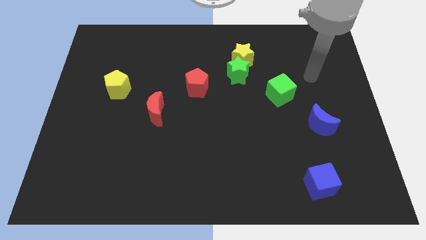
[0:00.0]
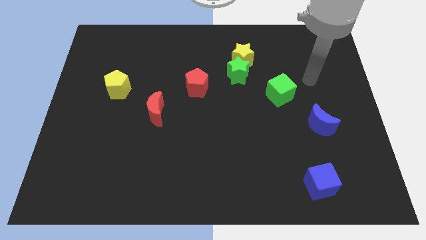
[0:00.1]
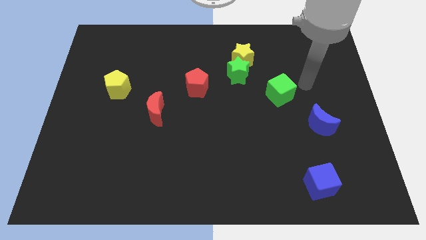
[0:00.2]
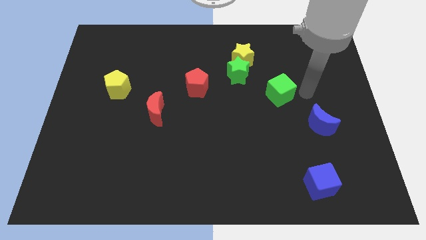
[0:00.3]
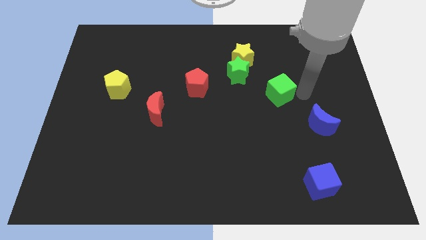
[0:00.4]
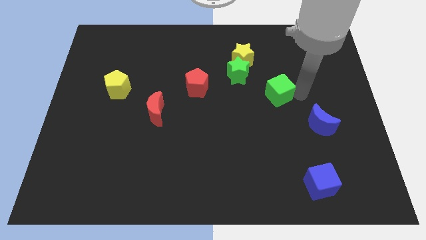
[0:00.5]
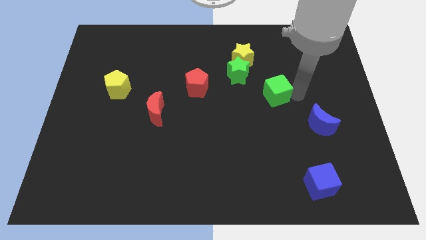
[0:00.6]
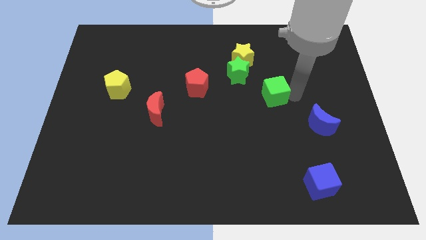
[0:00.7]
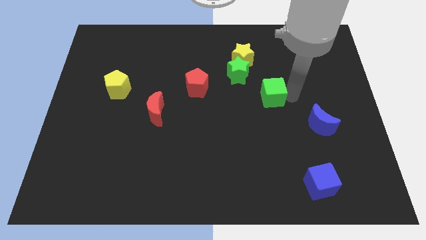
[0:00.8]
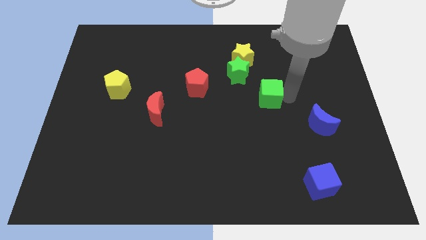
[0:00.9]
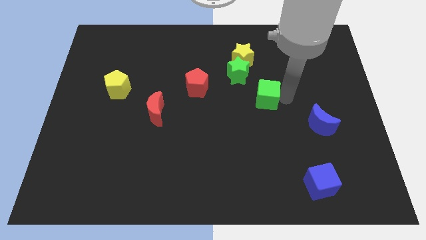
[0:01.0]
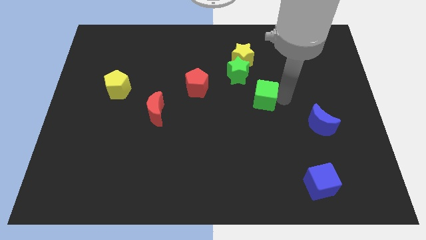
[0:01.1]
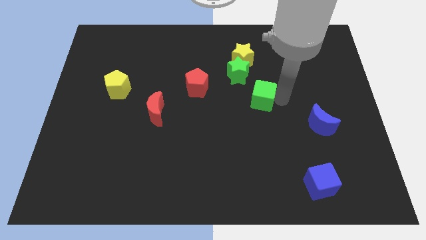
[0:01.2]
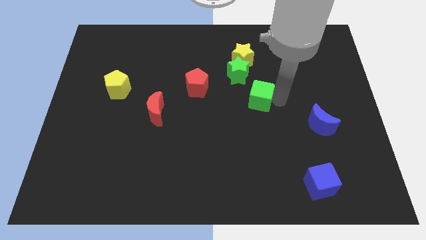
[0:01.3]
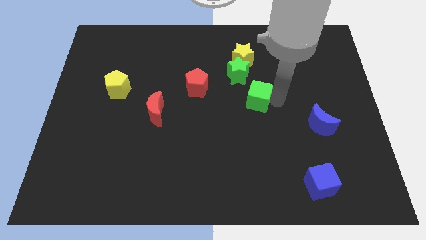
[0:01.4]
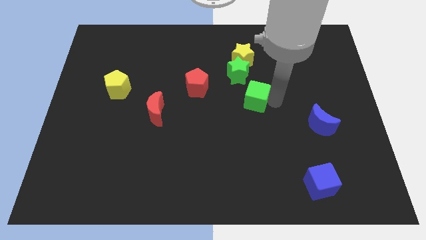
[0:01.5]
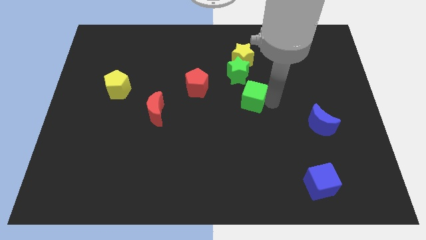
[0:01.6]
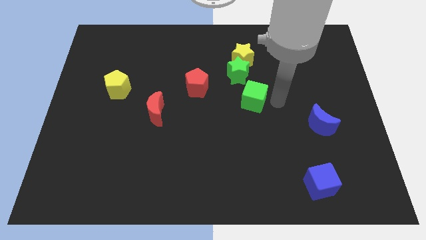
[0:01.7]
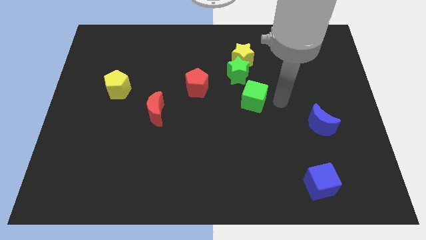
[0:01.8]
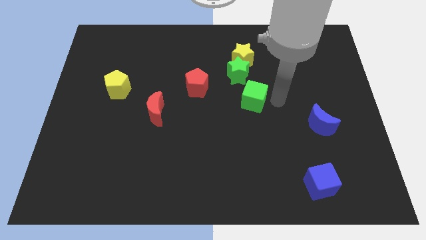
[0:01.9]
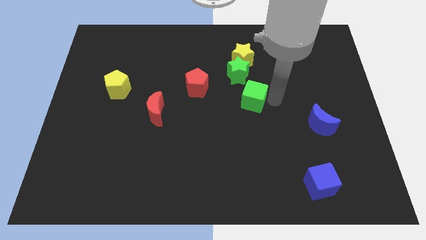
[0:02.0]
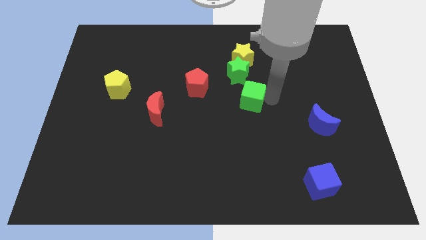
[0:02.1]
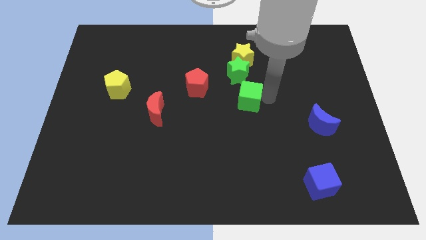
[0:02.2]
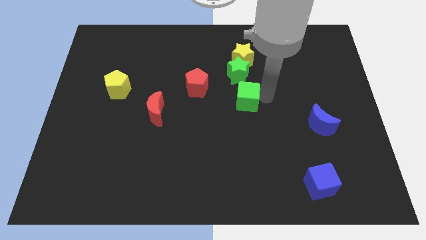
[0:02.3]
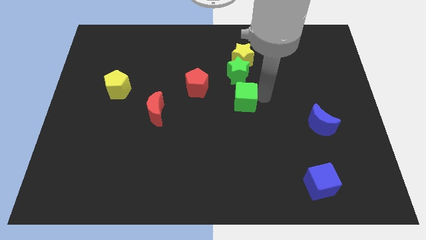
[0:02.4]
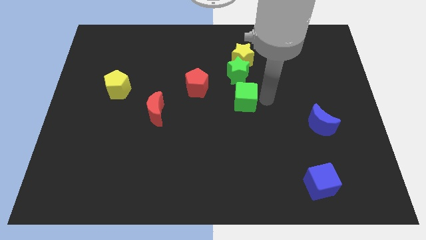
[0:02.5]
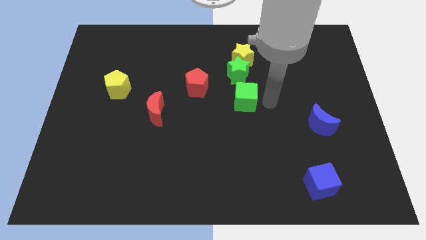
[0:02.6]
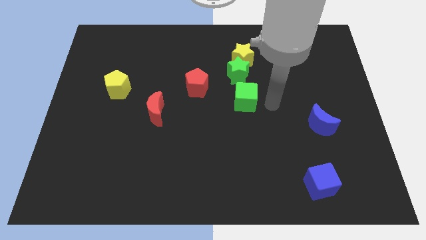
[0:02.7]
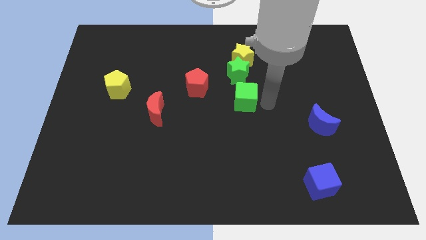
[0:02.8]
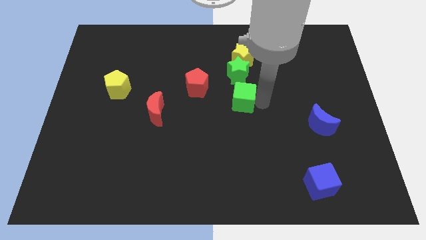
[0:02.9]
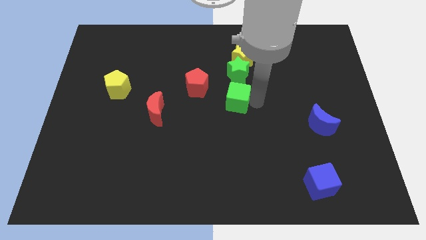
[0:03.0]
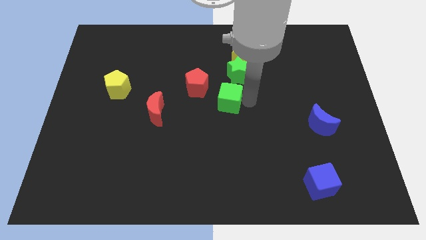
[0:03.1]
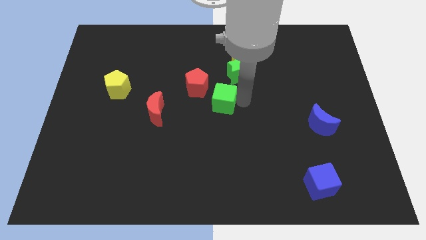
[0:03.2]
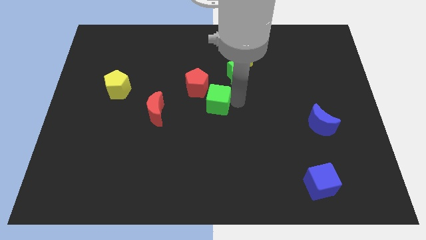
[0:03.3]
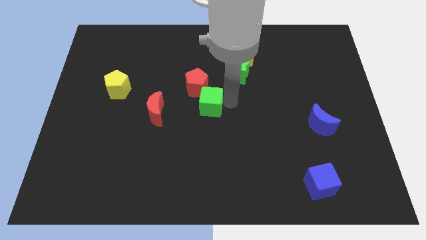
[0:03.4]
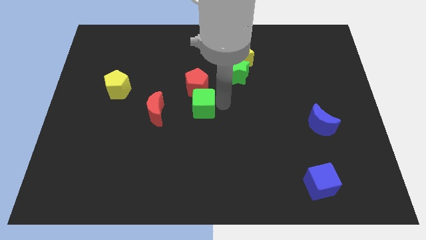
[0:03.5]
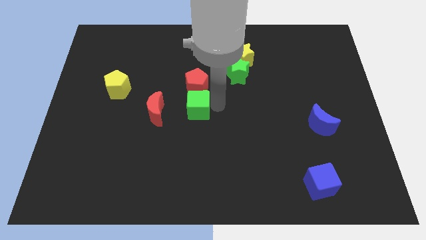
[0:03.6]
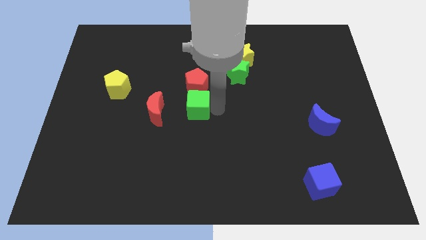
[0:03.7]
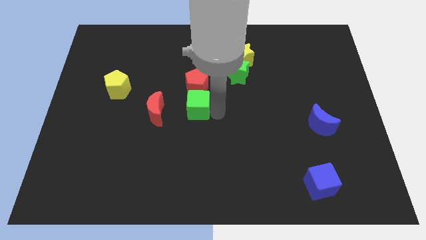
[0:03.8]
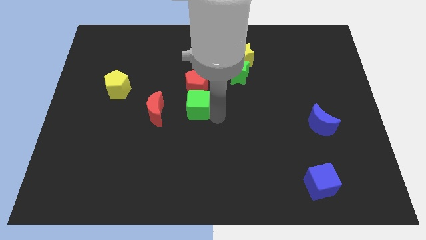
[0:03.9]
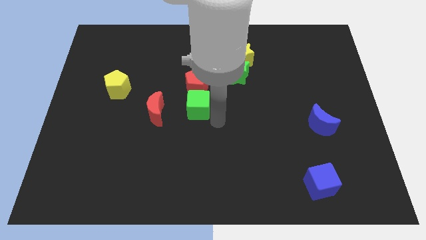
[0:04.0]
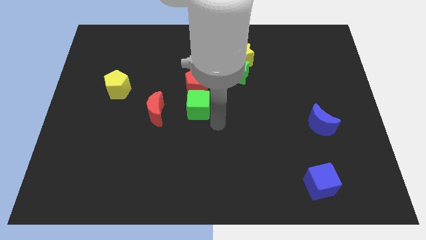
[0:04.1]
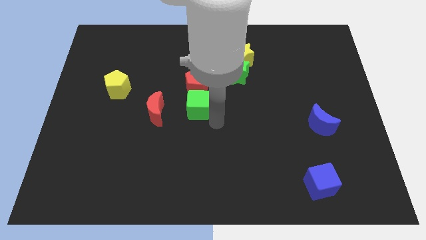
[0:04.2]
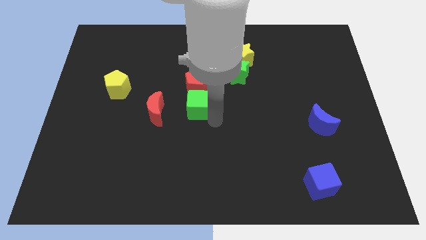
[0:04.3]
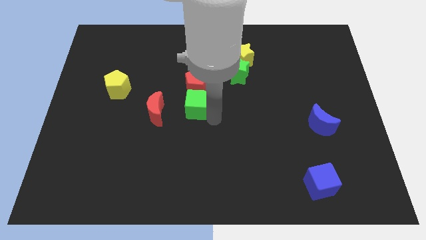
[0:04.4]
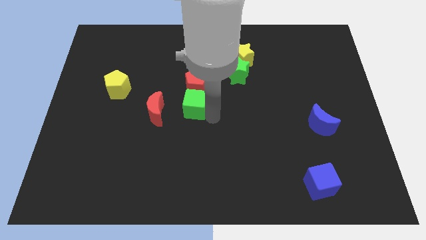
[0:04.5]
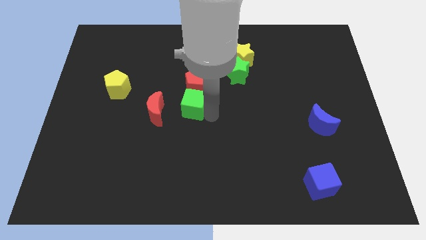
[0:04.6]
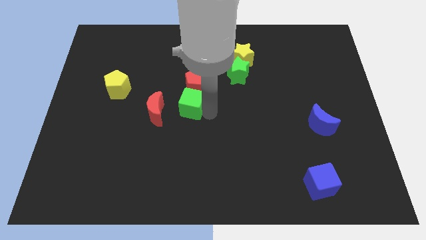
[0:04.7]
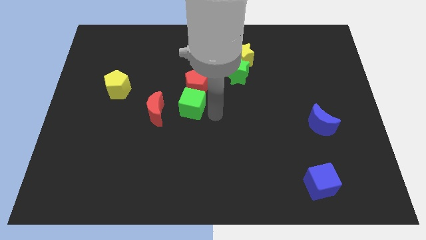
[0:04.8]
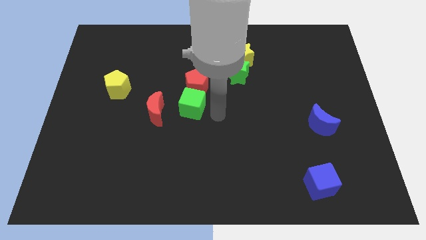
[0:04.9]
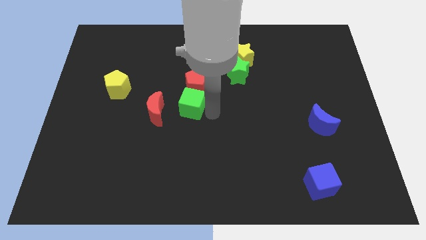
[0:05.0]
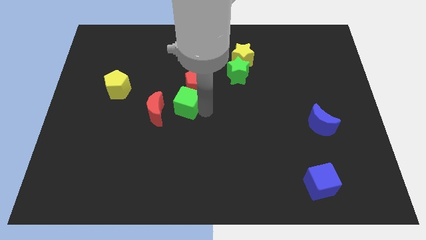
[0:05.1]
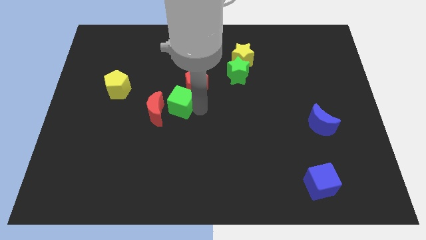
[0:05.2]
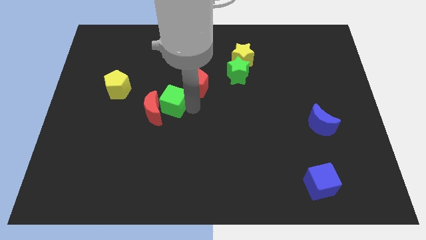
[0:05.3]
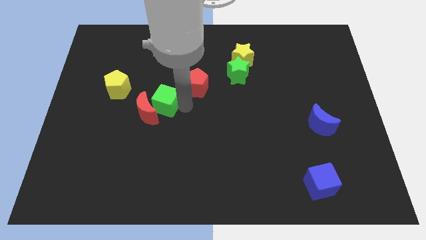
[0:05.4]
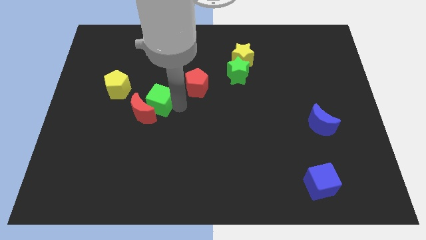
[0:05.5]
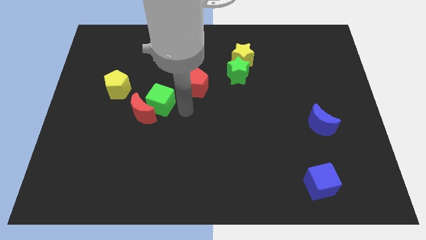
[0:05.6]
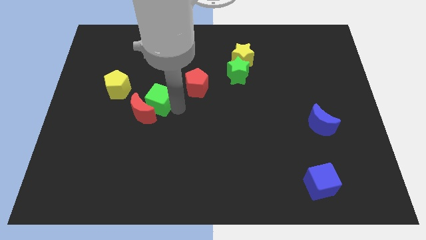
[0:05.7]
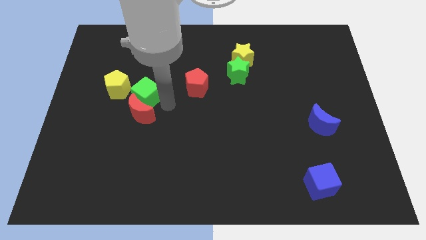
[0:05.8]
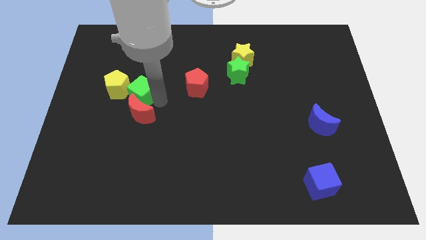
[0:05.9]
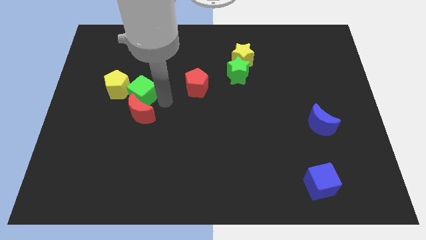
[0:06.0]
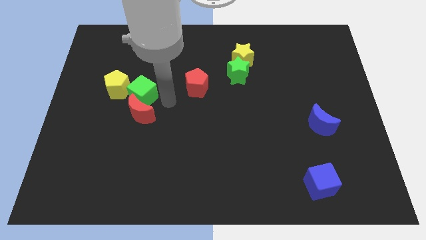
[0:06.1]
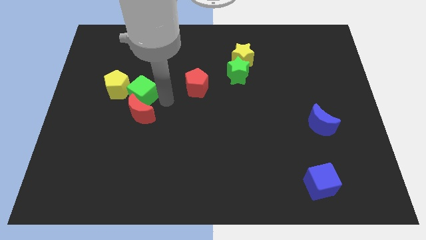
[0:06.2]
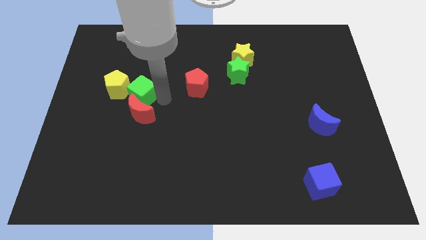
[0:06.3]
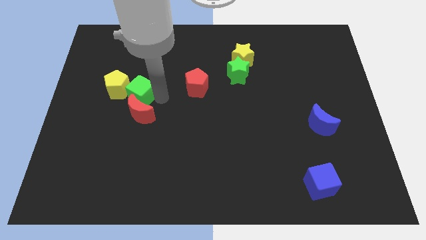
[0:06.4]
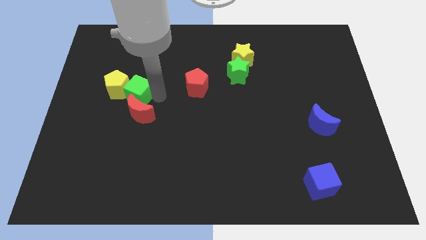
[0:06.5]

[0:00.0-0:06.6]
move the green cube to the yellow pentagon

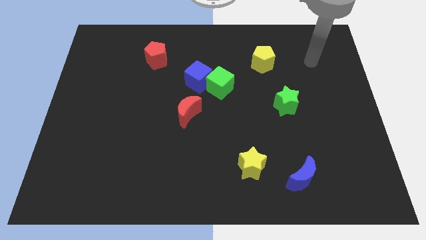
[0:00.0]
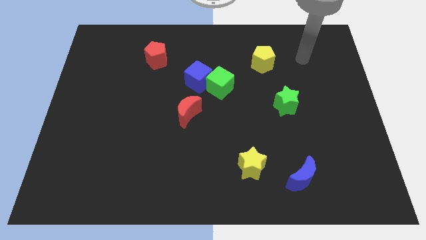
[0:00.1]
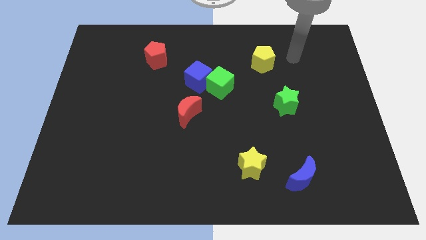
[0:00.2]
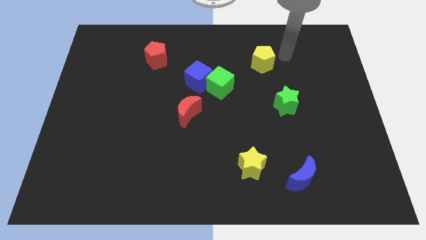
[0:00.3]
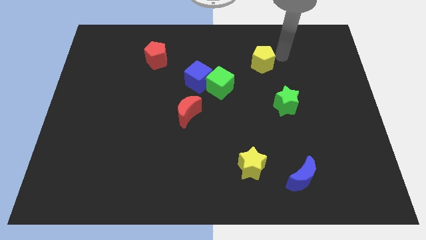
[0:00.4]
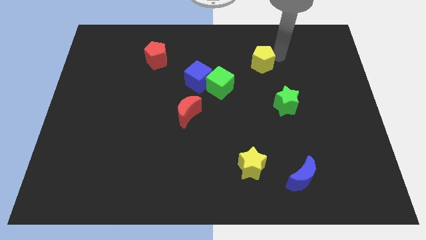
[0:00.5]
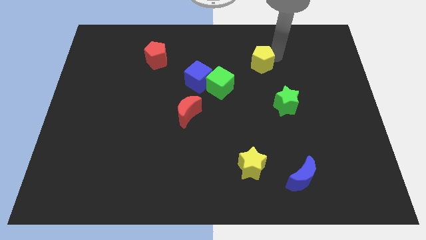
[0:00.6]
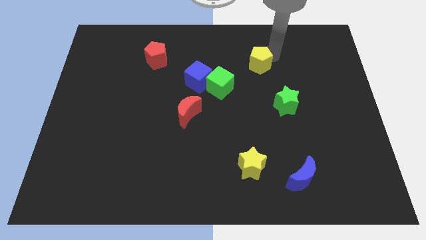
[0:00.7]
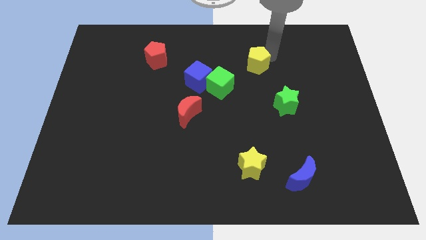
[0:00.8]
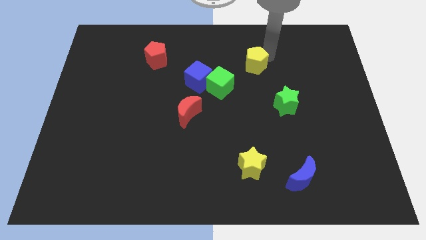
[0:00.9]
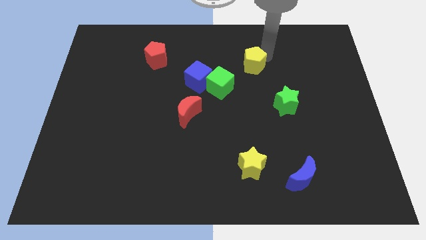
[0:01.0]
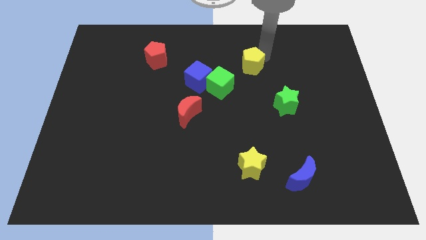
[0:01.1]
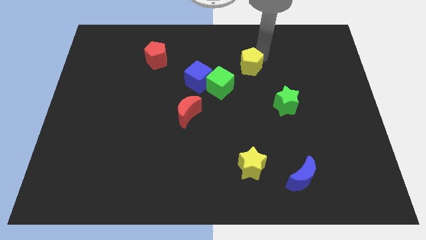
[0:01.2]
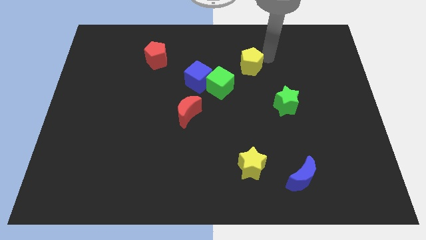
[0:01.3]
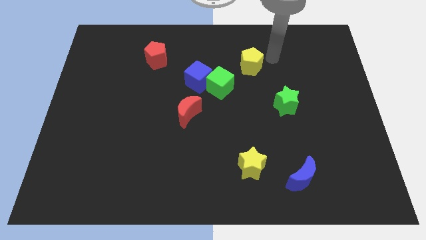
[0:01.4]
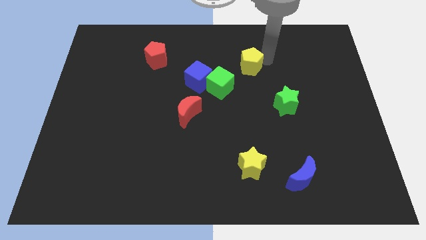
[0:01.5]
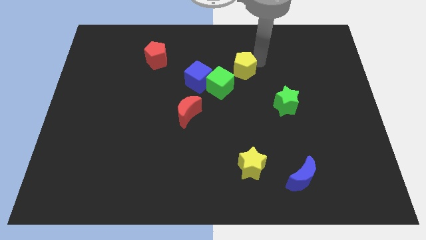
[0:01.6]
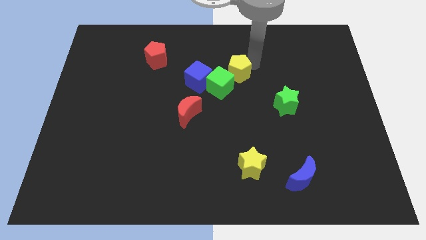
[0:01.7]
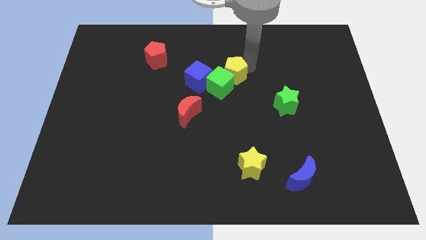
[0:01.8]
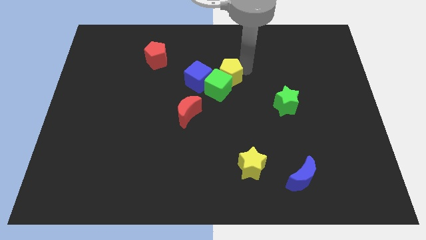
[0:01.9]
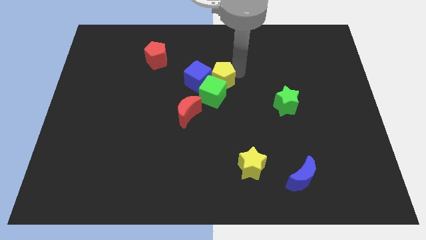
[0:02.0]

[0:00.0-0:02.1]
put the yellow pentagon towards the blue cube
